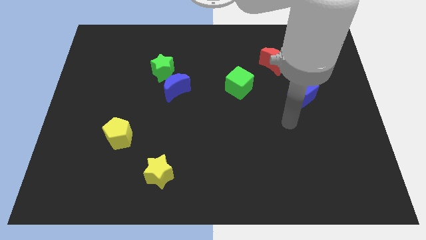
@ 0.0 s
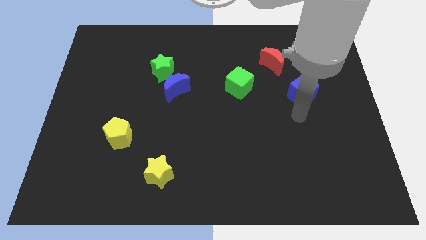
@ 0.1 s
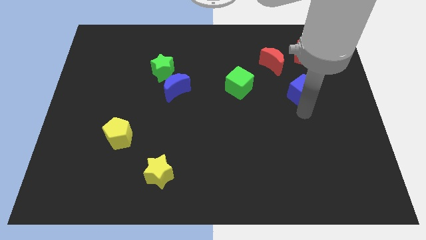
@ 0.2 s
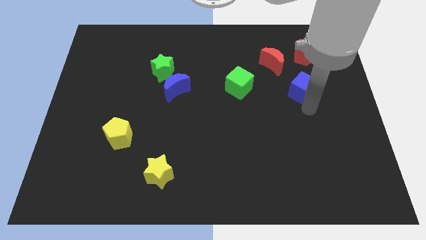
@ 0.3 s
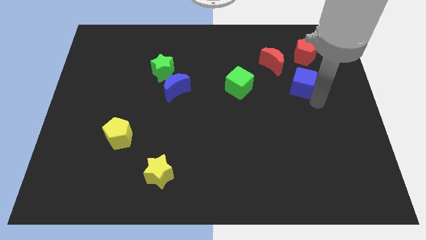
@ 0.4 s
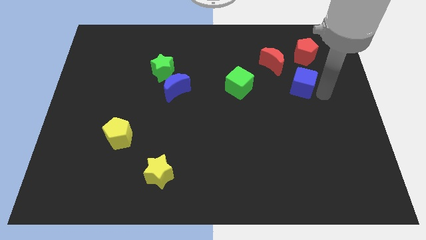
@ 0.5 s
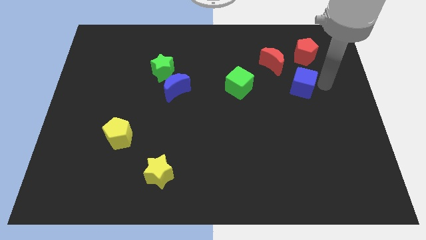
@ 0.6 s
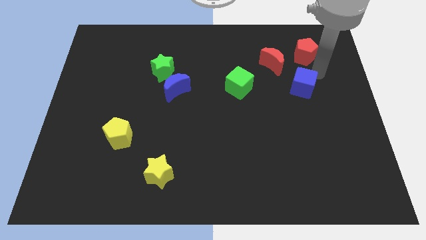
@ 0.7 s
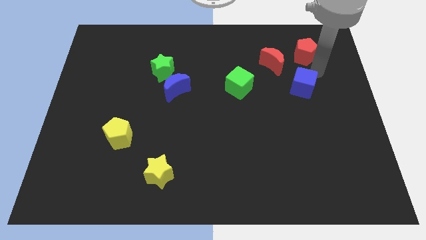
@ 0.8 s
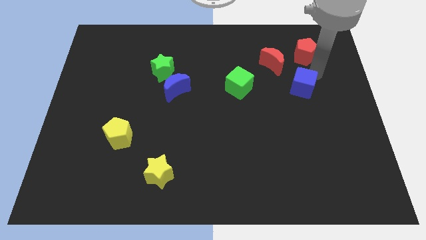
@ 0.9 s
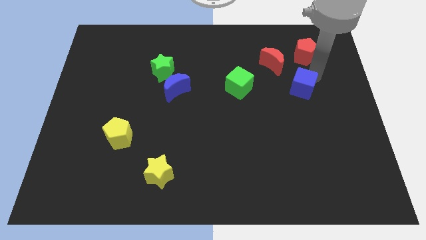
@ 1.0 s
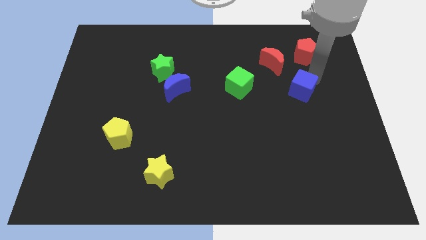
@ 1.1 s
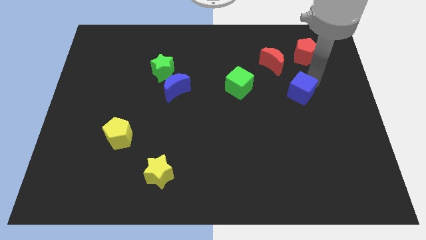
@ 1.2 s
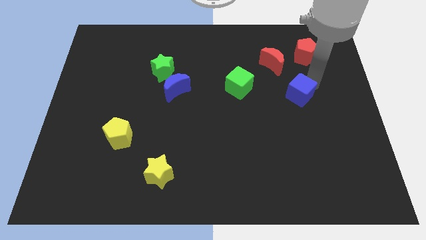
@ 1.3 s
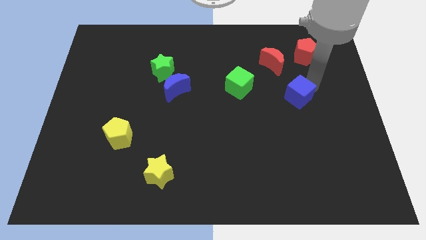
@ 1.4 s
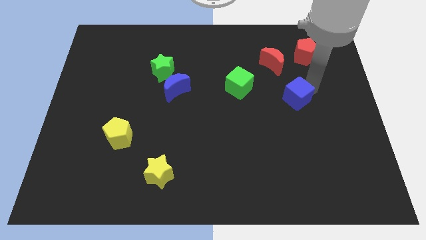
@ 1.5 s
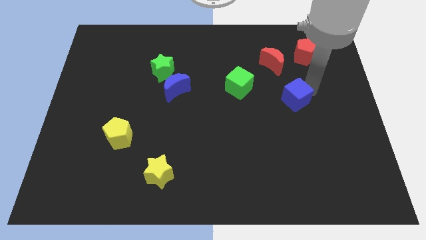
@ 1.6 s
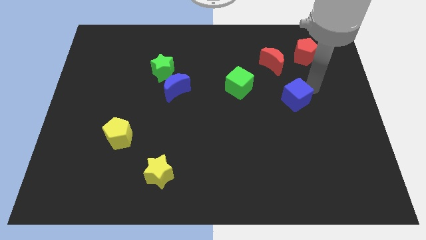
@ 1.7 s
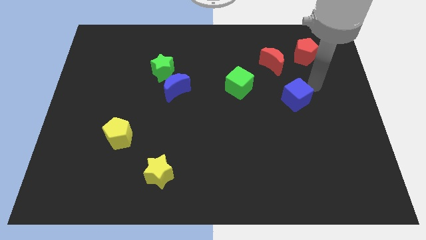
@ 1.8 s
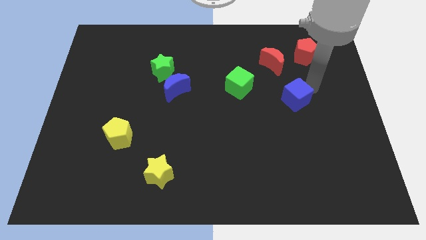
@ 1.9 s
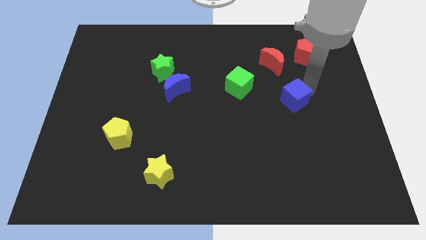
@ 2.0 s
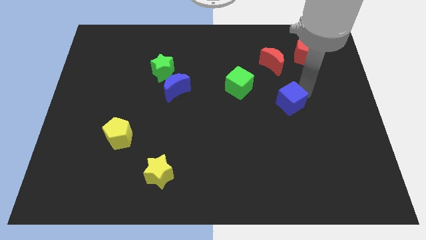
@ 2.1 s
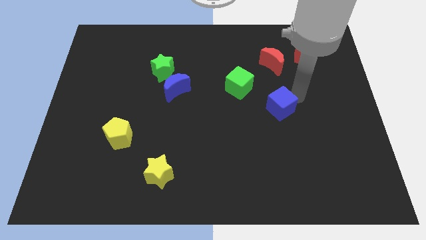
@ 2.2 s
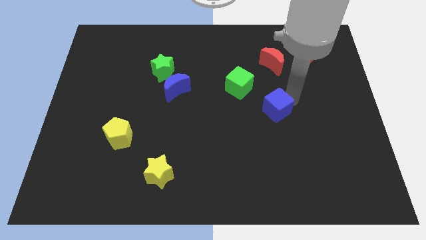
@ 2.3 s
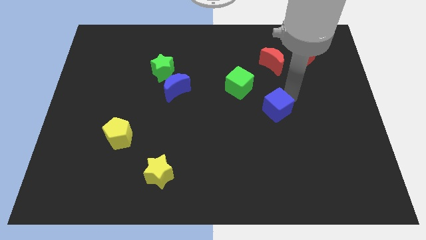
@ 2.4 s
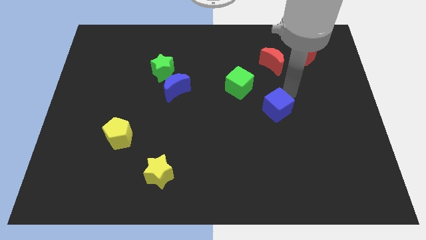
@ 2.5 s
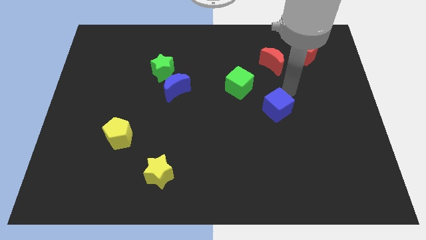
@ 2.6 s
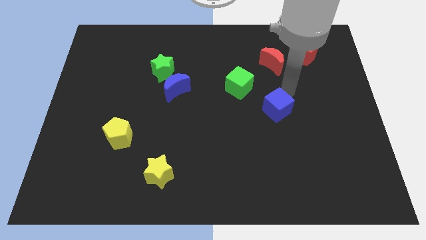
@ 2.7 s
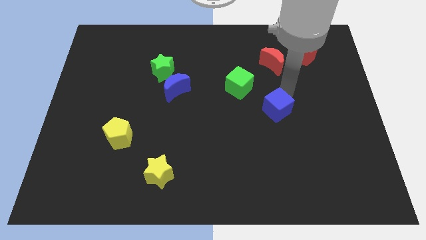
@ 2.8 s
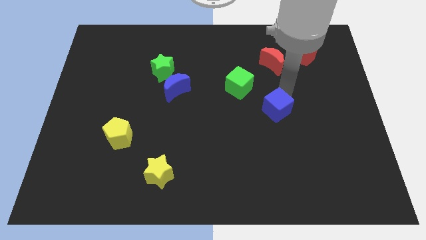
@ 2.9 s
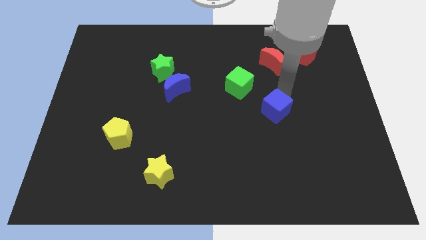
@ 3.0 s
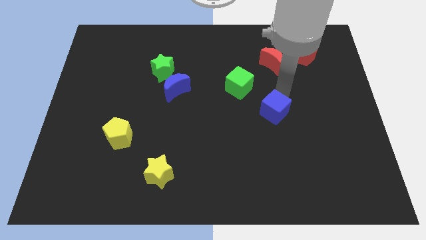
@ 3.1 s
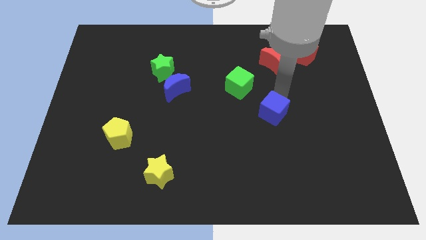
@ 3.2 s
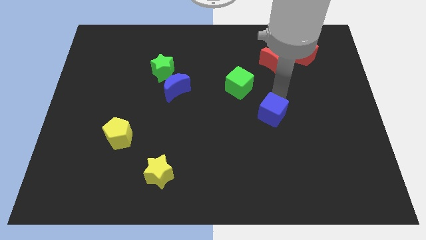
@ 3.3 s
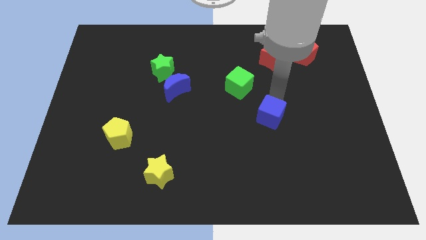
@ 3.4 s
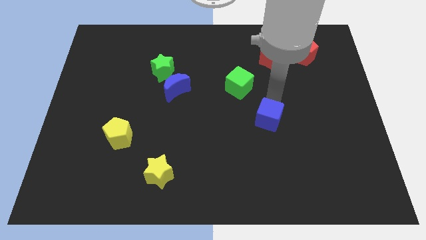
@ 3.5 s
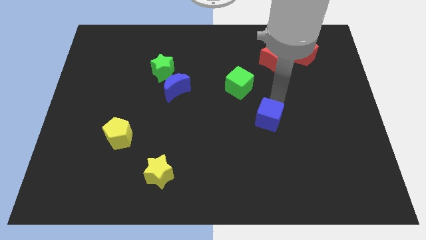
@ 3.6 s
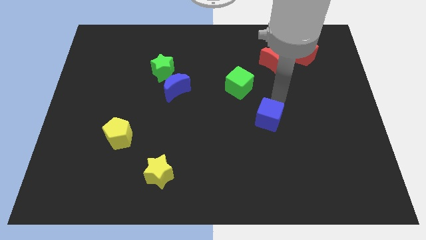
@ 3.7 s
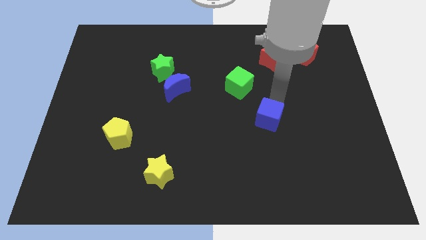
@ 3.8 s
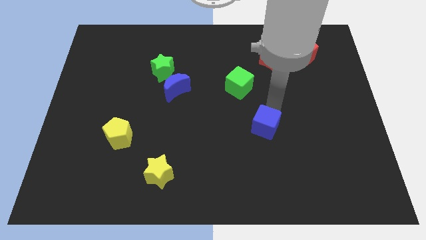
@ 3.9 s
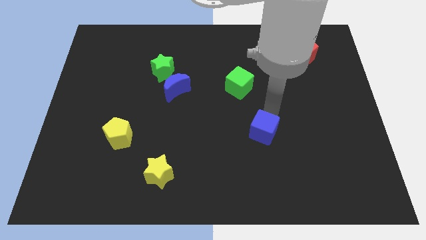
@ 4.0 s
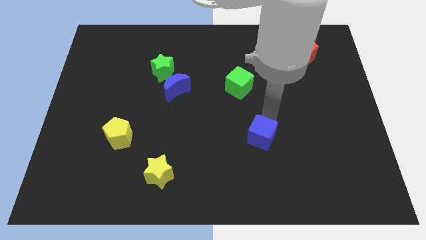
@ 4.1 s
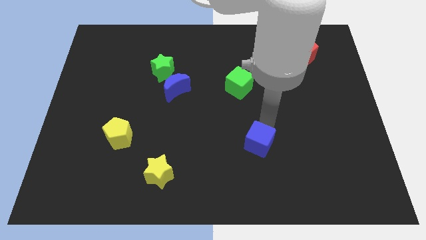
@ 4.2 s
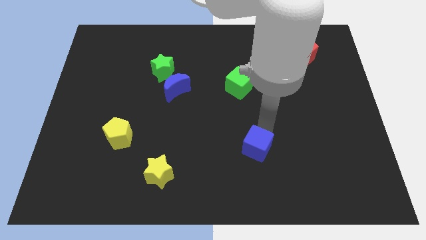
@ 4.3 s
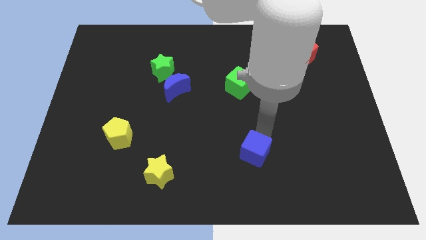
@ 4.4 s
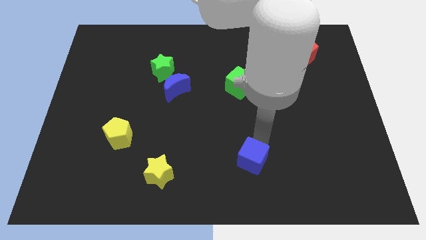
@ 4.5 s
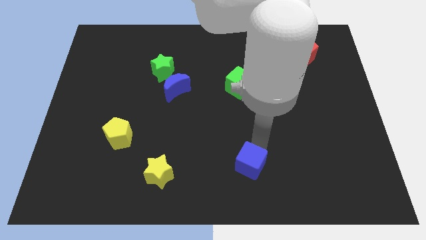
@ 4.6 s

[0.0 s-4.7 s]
slide the blue cube to the bottom

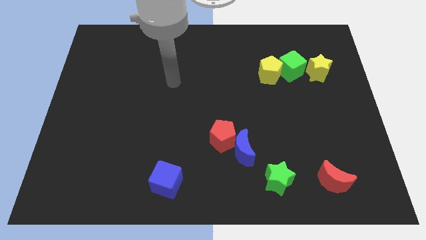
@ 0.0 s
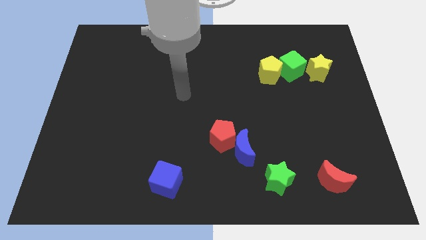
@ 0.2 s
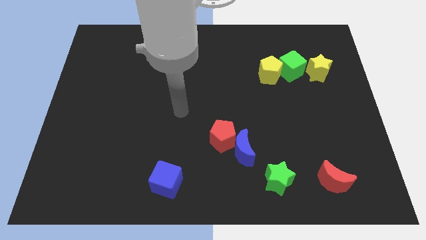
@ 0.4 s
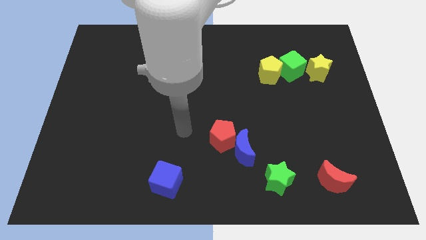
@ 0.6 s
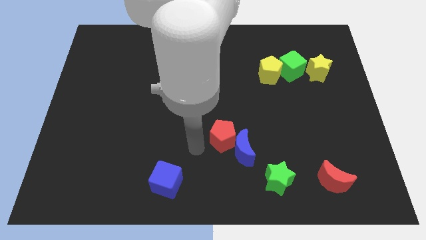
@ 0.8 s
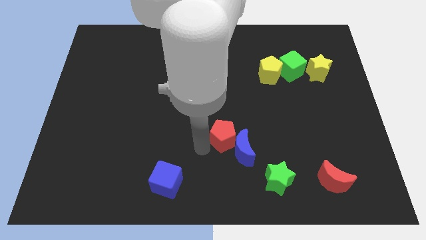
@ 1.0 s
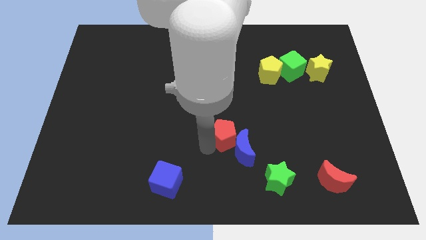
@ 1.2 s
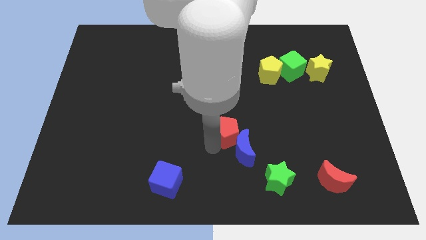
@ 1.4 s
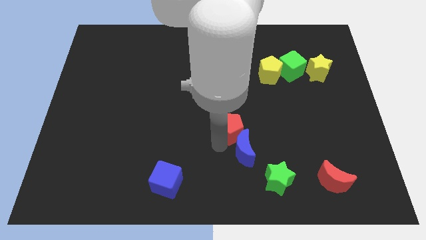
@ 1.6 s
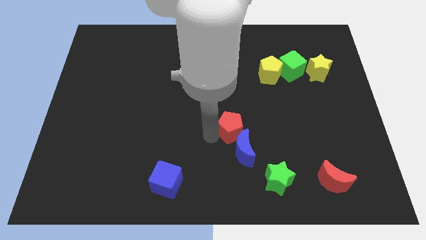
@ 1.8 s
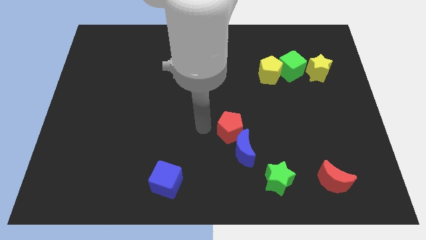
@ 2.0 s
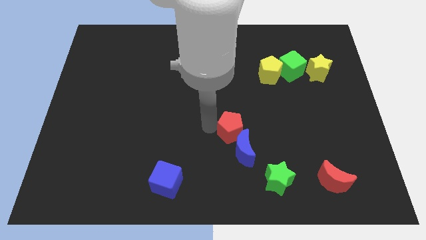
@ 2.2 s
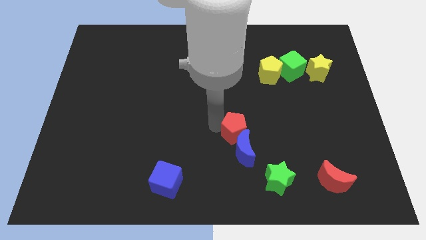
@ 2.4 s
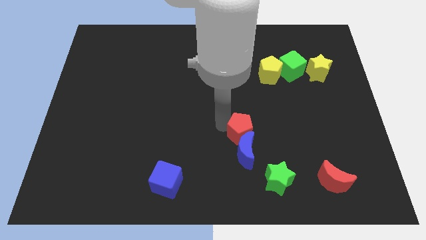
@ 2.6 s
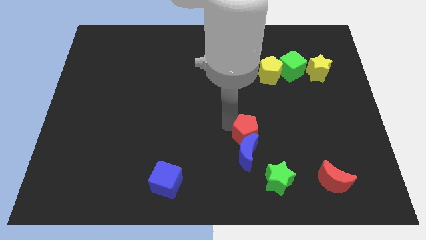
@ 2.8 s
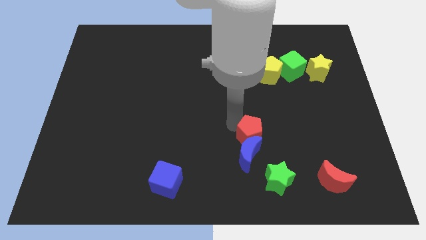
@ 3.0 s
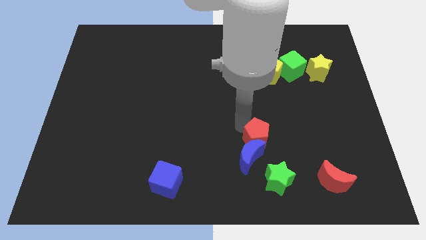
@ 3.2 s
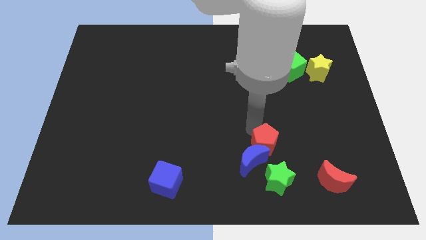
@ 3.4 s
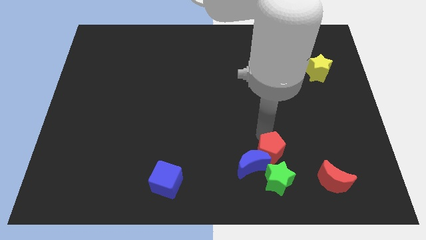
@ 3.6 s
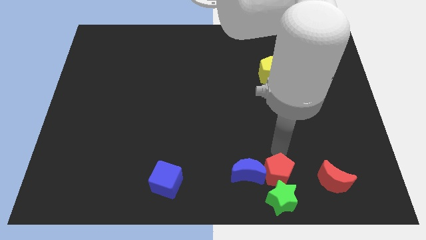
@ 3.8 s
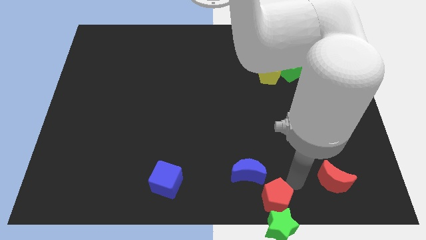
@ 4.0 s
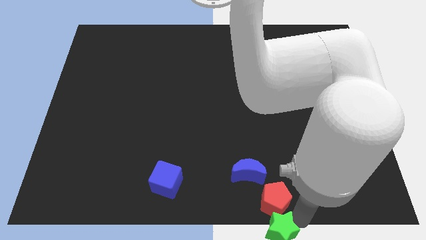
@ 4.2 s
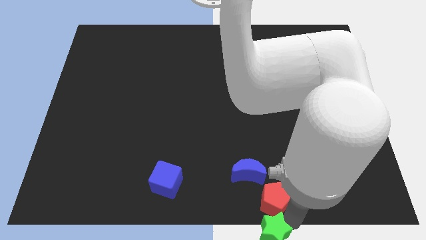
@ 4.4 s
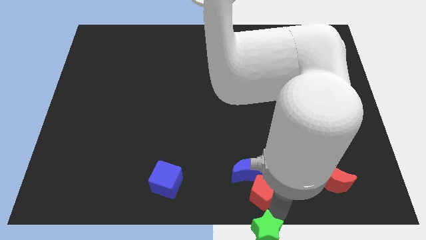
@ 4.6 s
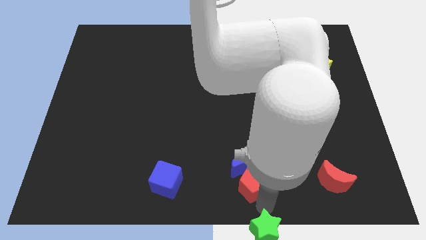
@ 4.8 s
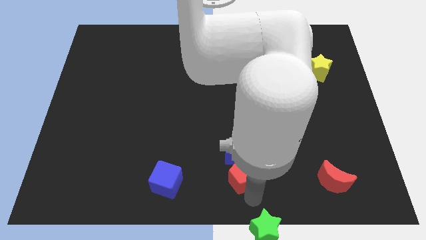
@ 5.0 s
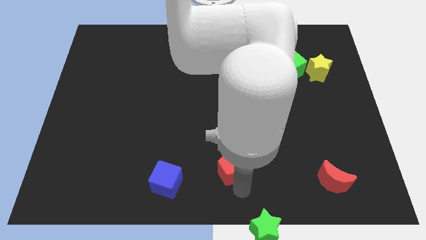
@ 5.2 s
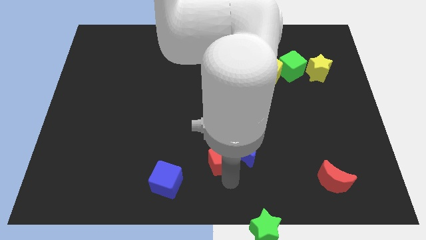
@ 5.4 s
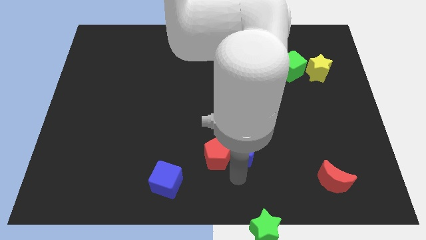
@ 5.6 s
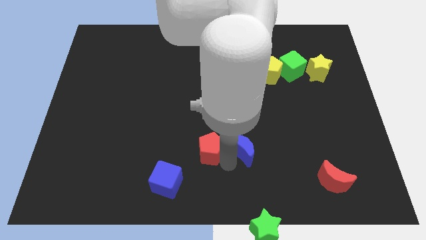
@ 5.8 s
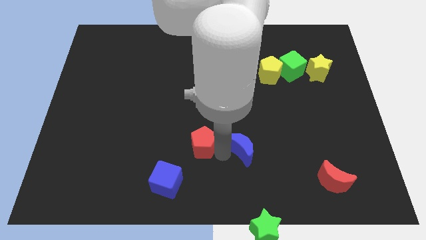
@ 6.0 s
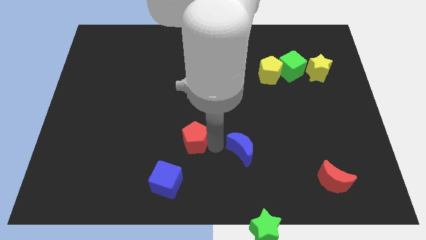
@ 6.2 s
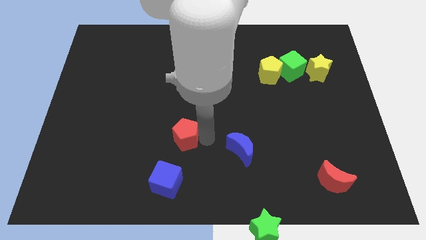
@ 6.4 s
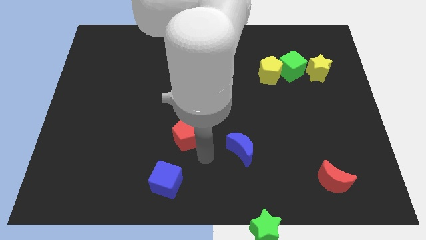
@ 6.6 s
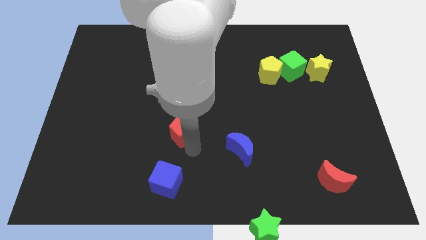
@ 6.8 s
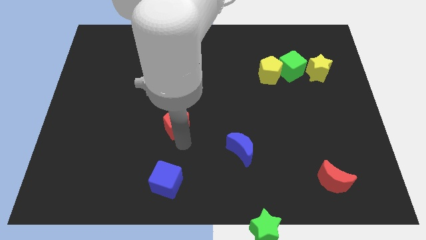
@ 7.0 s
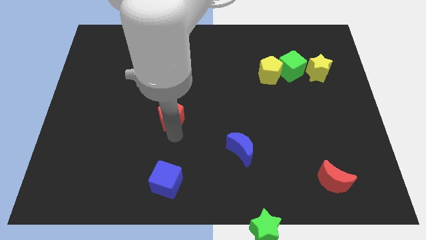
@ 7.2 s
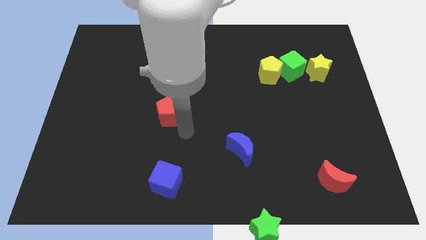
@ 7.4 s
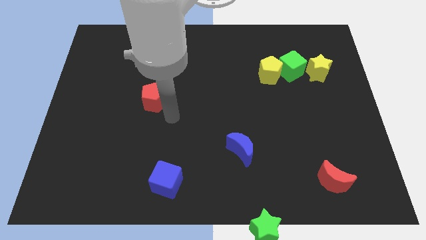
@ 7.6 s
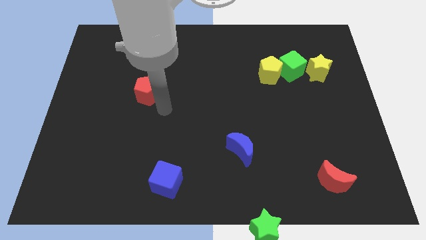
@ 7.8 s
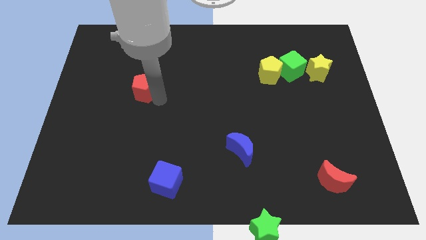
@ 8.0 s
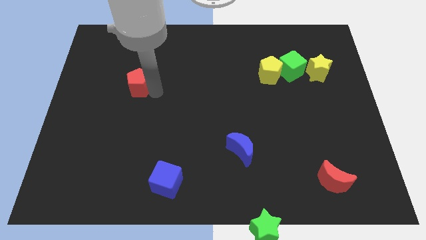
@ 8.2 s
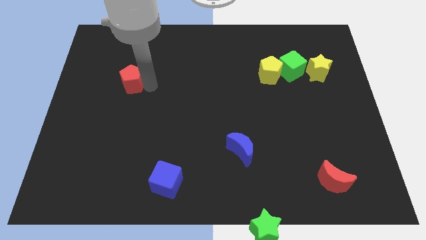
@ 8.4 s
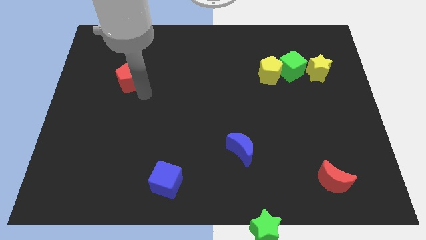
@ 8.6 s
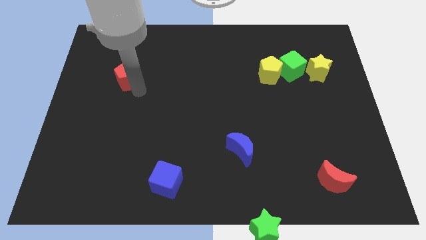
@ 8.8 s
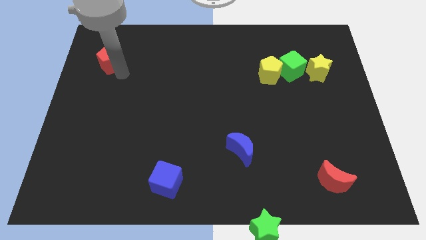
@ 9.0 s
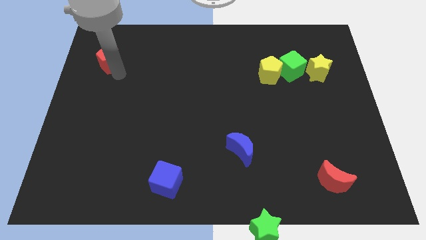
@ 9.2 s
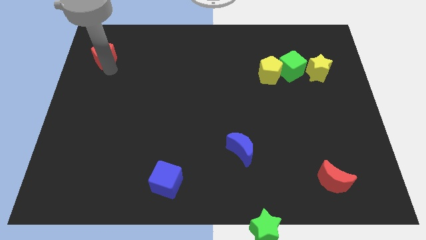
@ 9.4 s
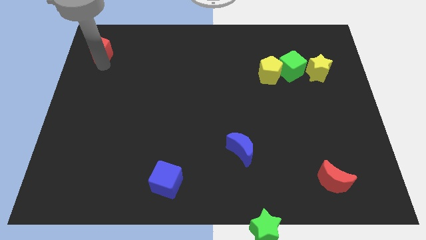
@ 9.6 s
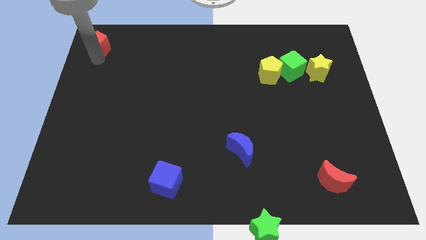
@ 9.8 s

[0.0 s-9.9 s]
push the red pentagon to the upper left corner
